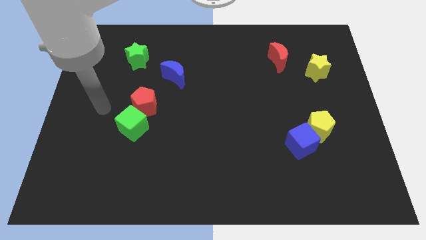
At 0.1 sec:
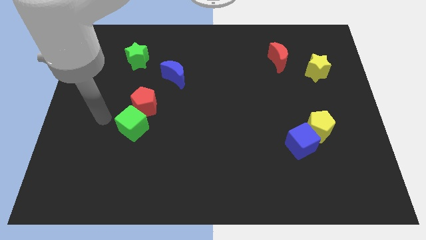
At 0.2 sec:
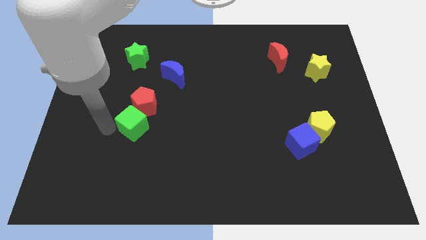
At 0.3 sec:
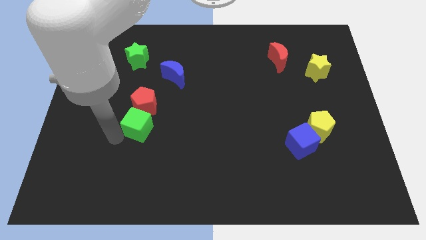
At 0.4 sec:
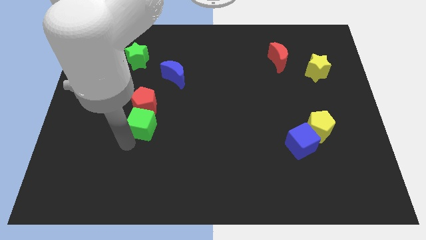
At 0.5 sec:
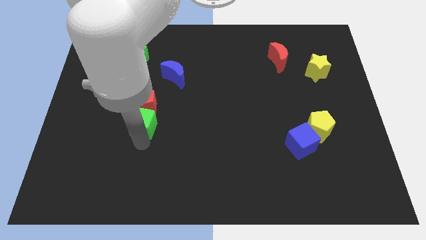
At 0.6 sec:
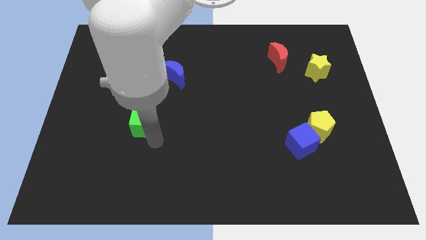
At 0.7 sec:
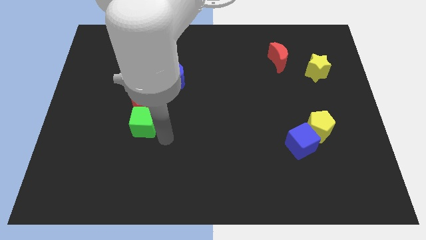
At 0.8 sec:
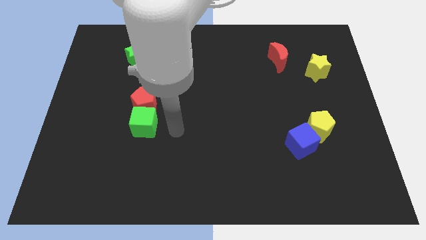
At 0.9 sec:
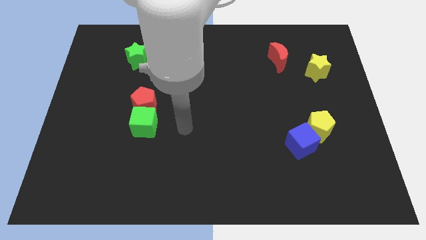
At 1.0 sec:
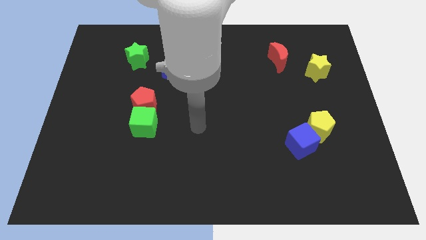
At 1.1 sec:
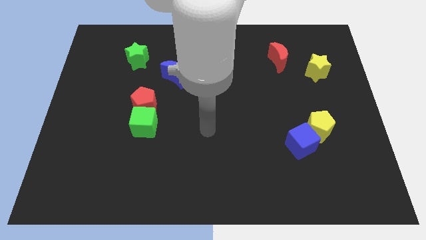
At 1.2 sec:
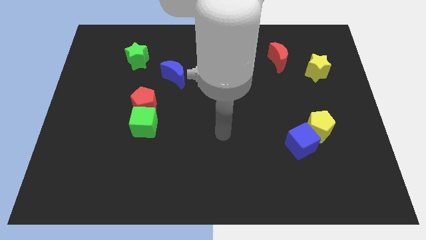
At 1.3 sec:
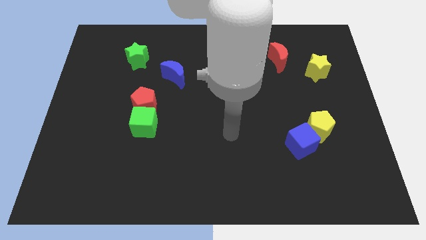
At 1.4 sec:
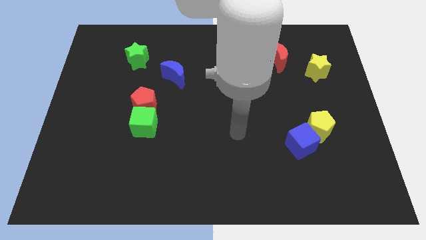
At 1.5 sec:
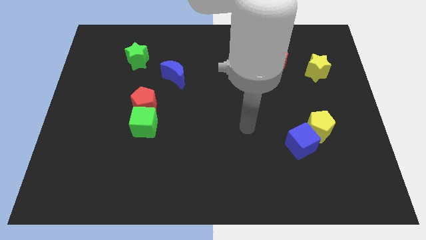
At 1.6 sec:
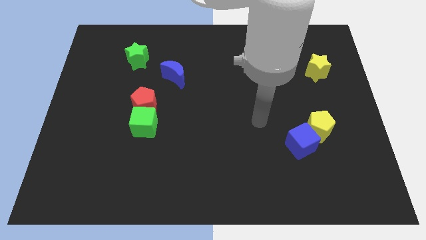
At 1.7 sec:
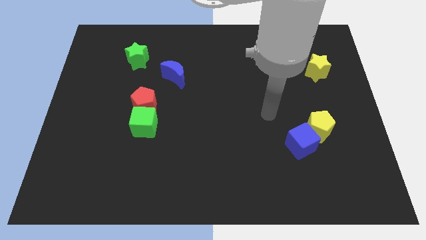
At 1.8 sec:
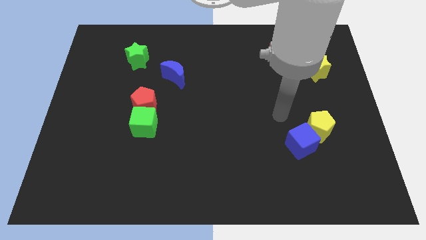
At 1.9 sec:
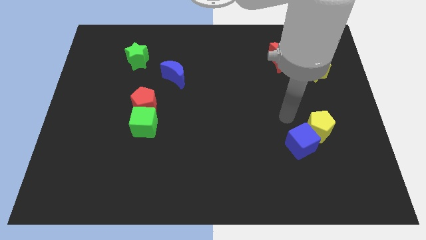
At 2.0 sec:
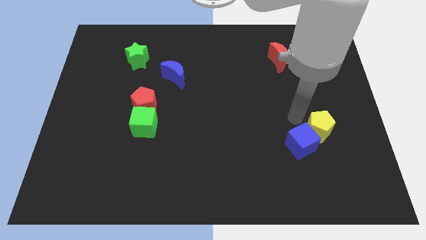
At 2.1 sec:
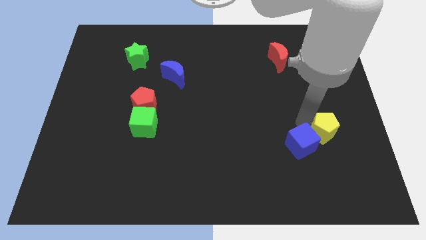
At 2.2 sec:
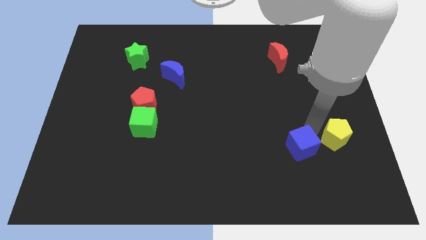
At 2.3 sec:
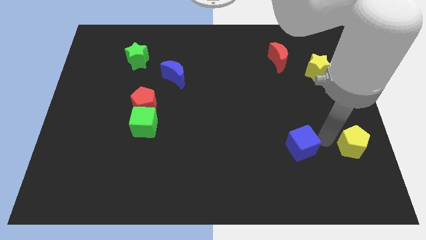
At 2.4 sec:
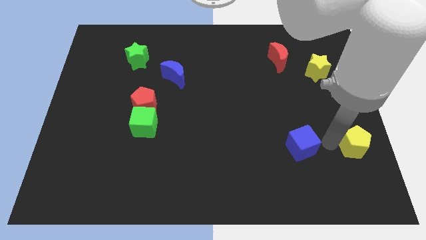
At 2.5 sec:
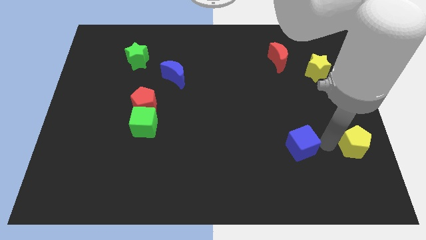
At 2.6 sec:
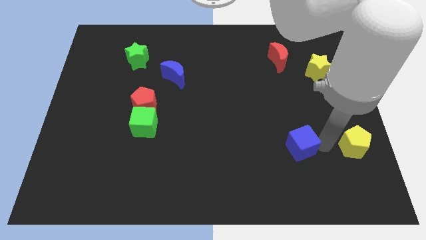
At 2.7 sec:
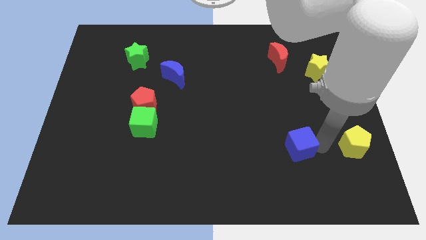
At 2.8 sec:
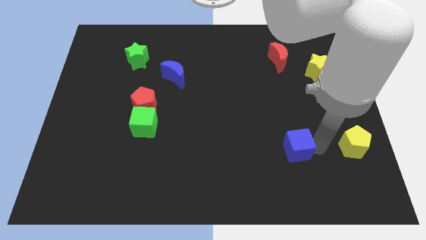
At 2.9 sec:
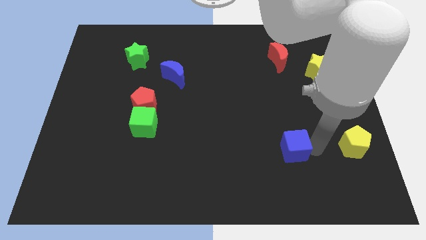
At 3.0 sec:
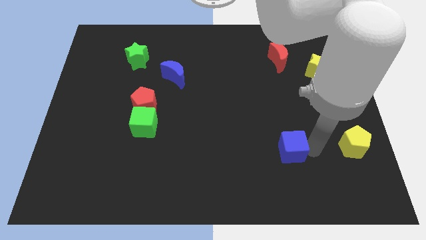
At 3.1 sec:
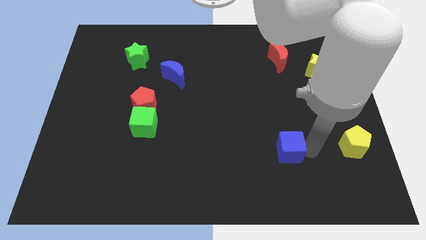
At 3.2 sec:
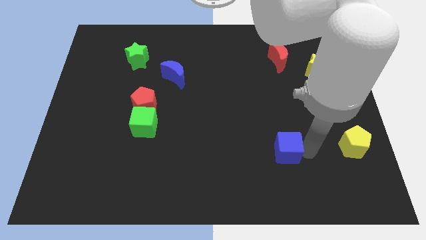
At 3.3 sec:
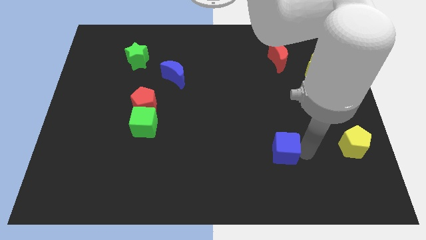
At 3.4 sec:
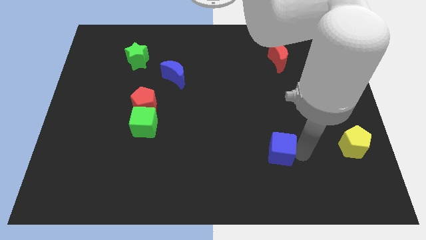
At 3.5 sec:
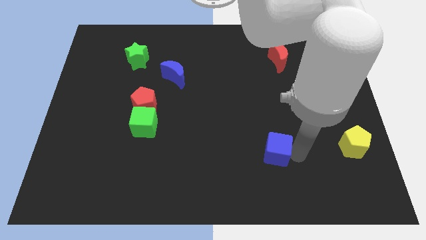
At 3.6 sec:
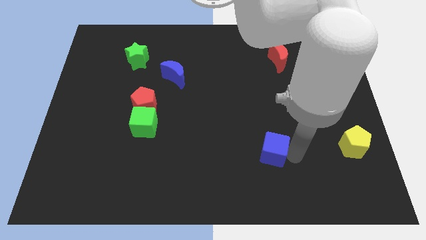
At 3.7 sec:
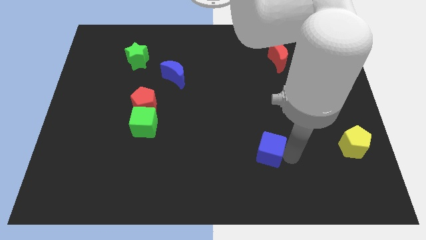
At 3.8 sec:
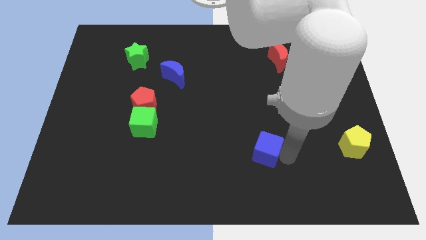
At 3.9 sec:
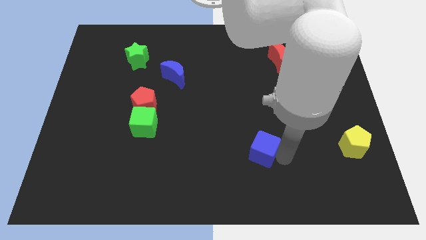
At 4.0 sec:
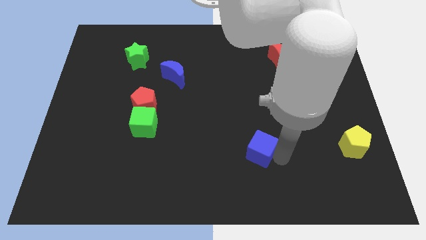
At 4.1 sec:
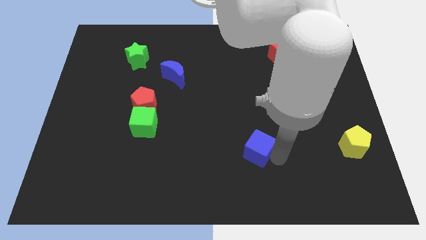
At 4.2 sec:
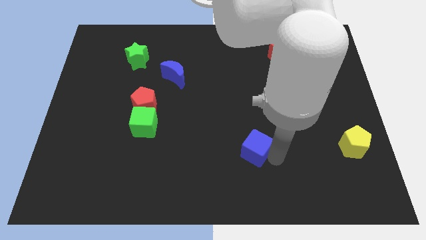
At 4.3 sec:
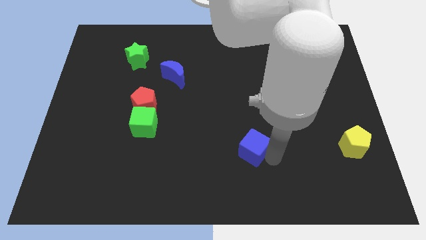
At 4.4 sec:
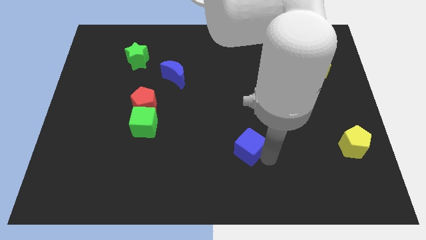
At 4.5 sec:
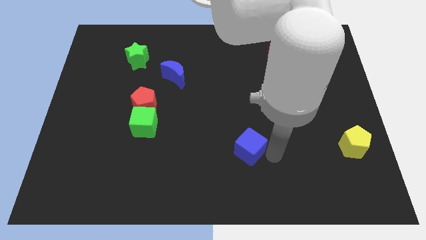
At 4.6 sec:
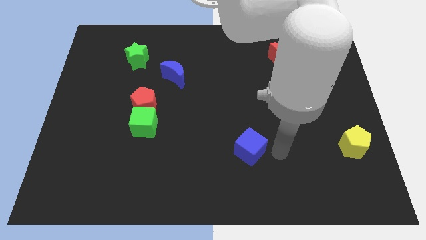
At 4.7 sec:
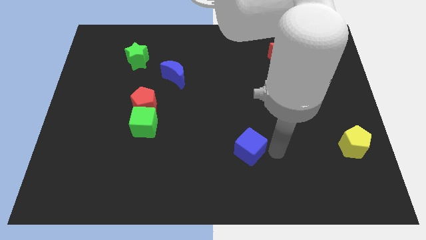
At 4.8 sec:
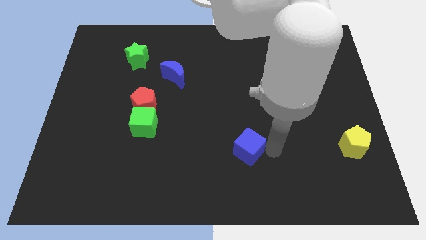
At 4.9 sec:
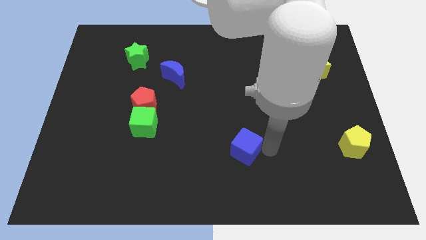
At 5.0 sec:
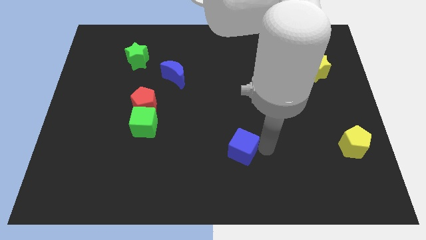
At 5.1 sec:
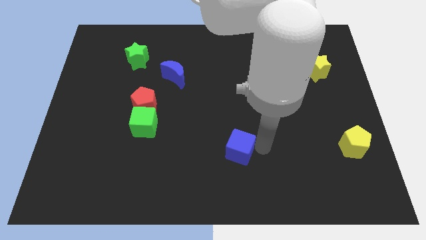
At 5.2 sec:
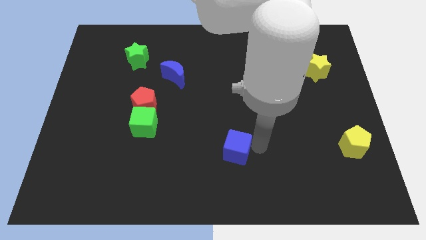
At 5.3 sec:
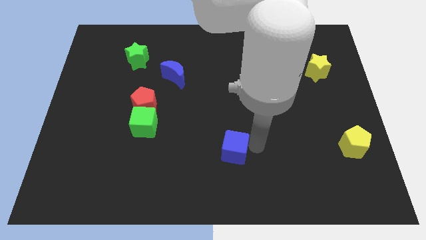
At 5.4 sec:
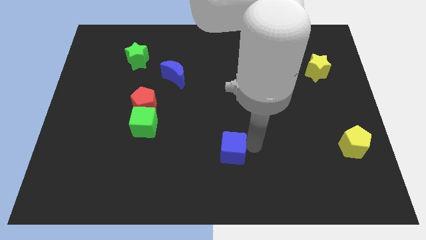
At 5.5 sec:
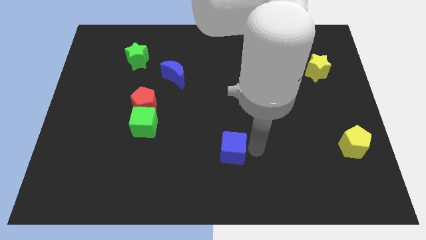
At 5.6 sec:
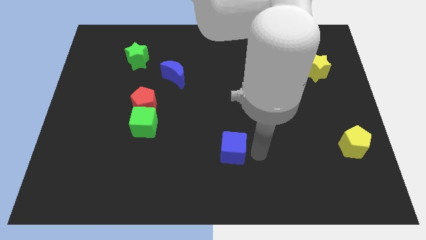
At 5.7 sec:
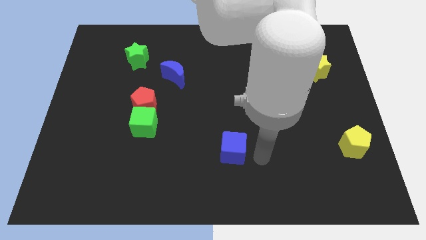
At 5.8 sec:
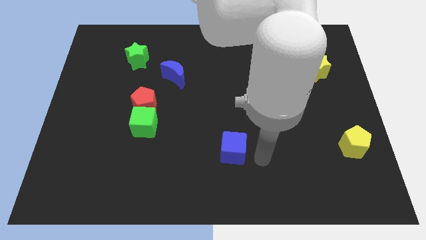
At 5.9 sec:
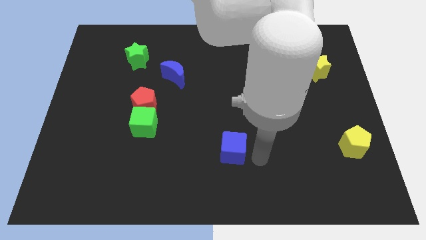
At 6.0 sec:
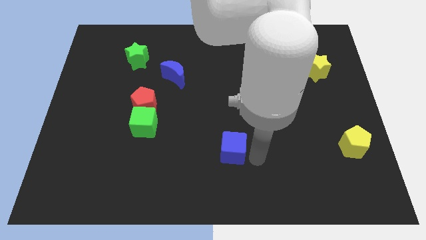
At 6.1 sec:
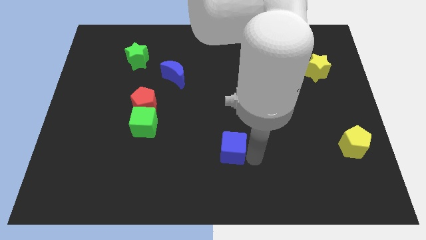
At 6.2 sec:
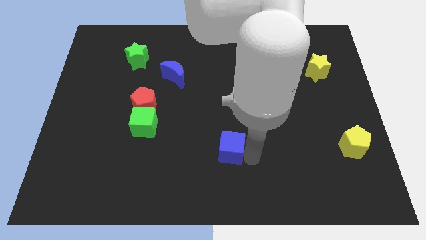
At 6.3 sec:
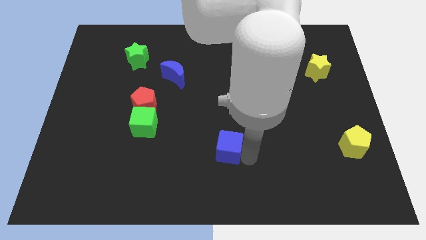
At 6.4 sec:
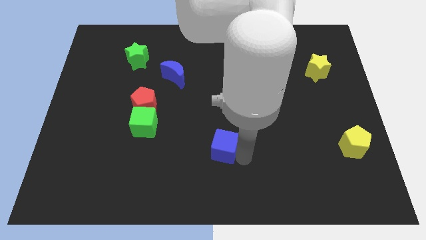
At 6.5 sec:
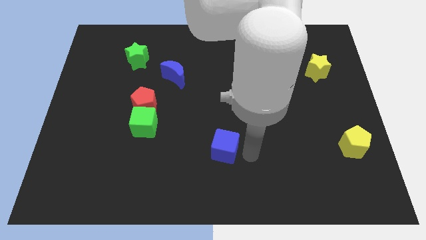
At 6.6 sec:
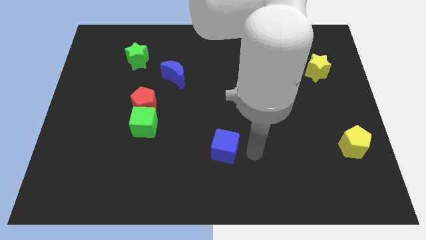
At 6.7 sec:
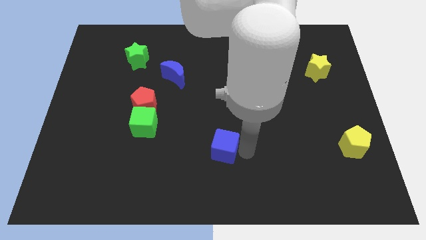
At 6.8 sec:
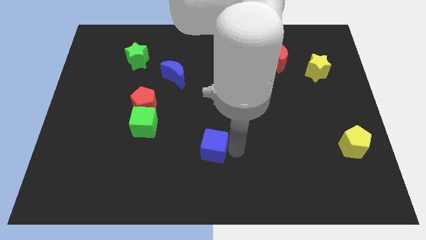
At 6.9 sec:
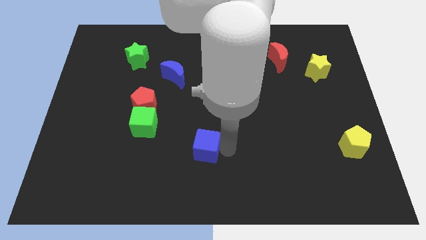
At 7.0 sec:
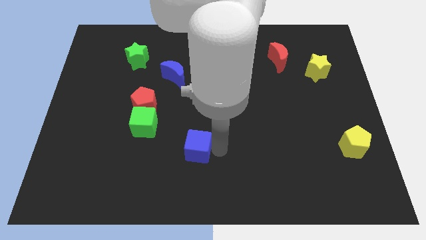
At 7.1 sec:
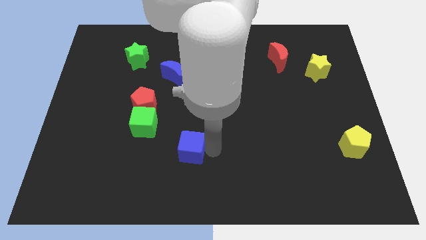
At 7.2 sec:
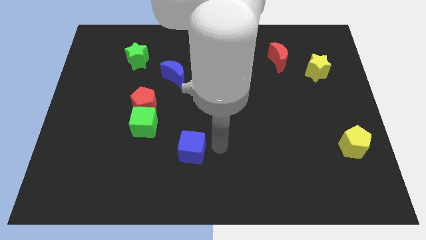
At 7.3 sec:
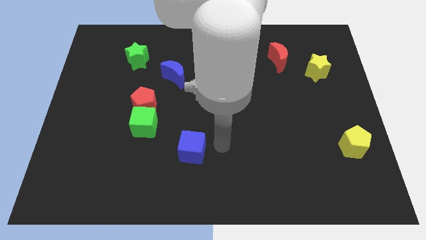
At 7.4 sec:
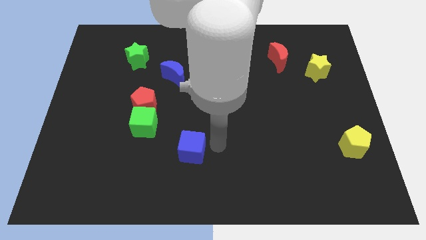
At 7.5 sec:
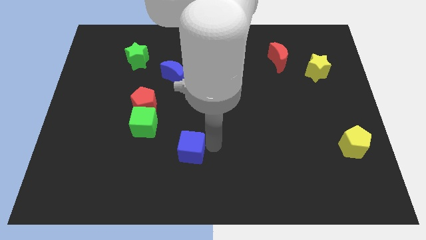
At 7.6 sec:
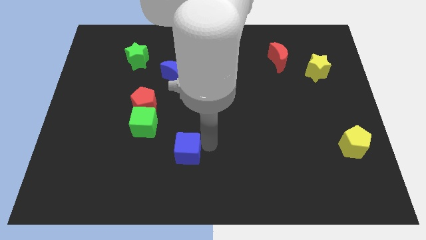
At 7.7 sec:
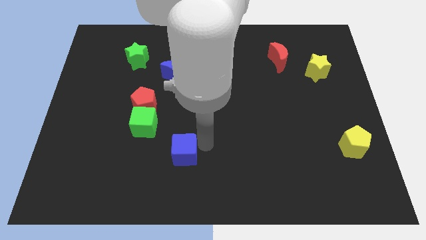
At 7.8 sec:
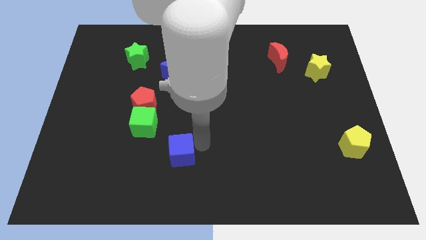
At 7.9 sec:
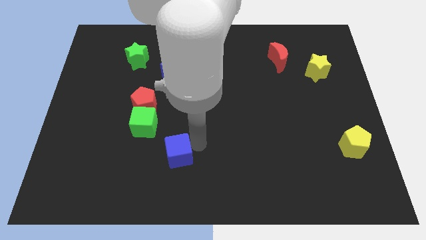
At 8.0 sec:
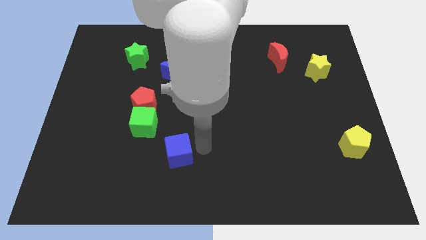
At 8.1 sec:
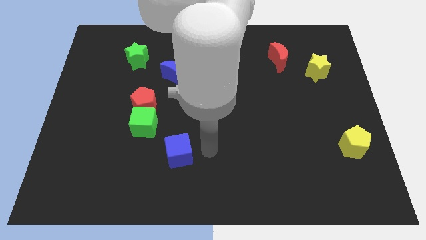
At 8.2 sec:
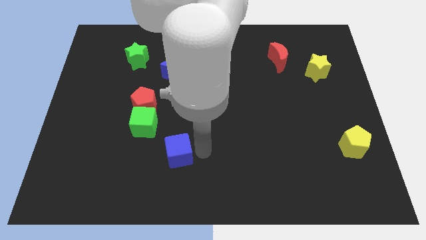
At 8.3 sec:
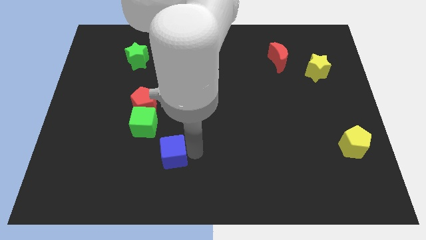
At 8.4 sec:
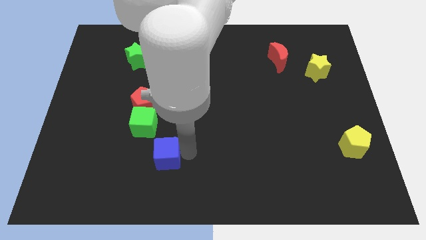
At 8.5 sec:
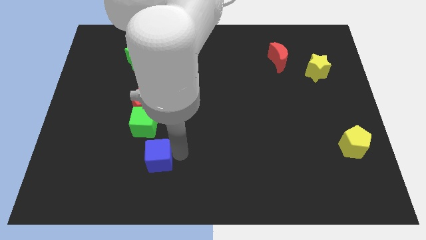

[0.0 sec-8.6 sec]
push the blue cube below the green cube
